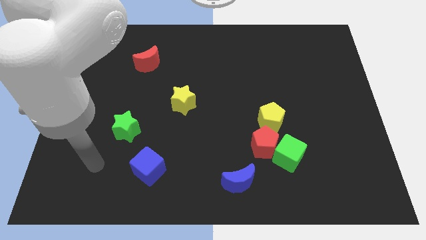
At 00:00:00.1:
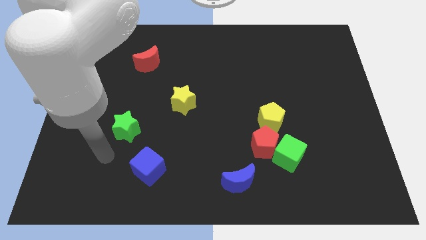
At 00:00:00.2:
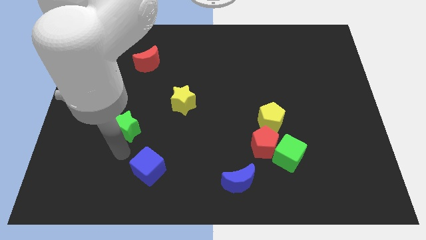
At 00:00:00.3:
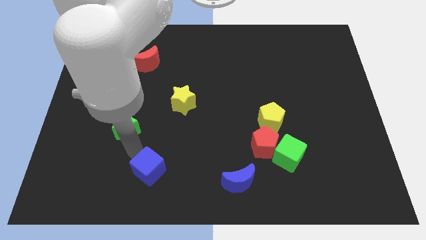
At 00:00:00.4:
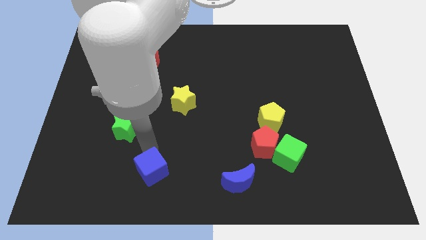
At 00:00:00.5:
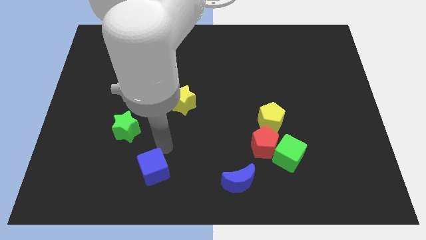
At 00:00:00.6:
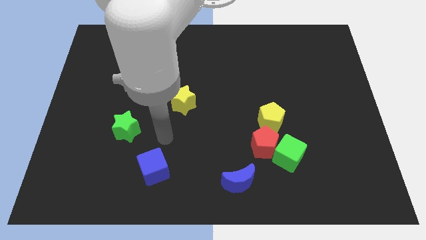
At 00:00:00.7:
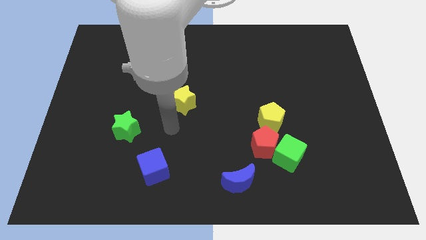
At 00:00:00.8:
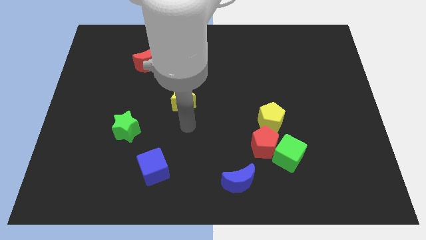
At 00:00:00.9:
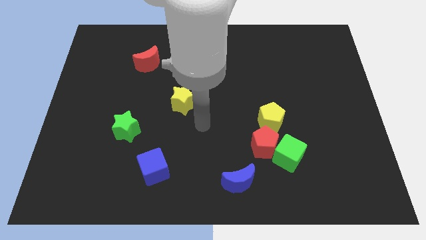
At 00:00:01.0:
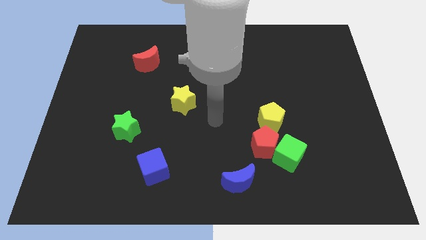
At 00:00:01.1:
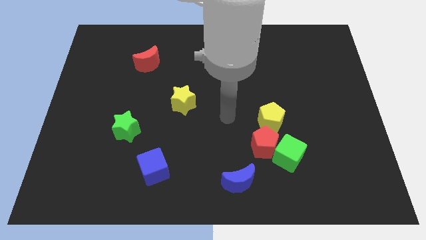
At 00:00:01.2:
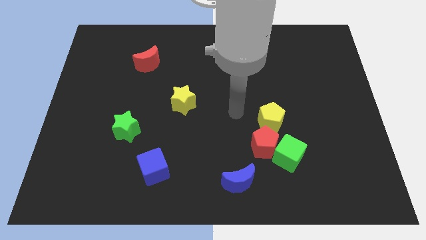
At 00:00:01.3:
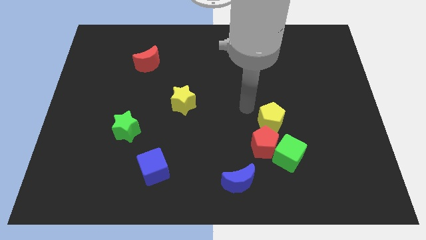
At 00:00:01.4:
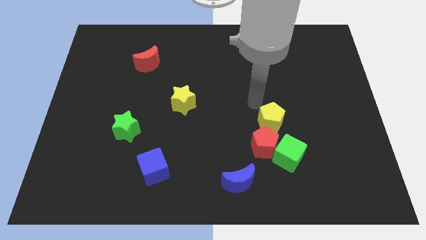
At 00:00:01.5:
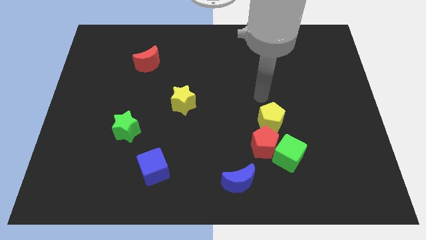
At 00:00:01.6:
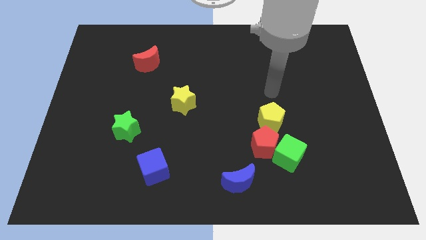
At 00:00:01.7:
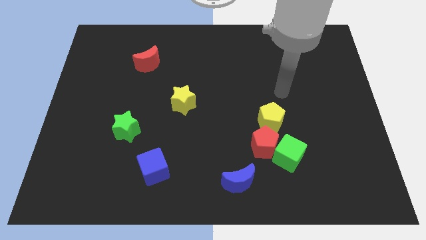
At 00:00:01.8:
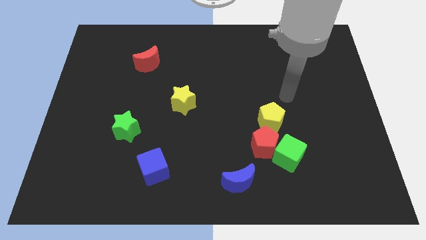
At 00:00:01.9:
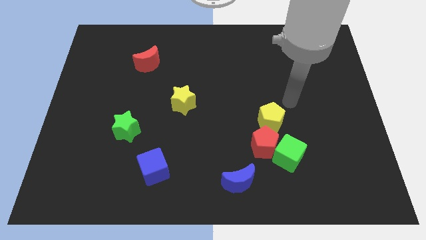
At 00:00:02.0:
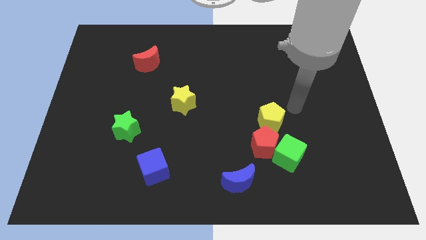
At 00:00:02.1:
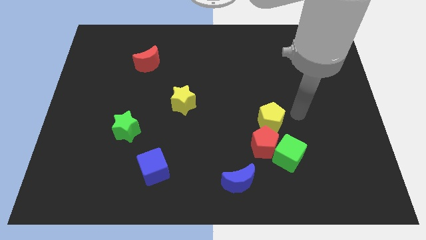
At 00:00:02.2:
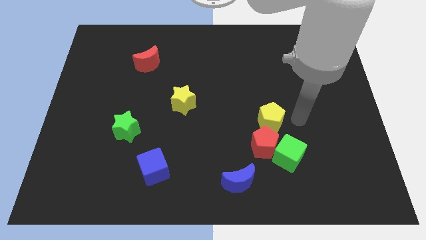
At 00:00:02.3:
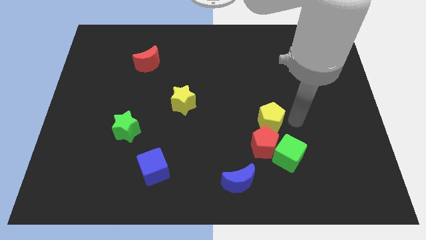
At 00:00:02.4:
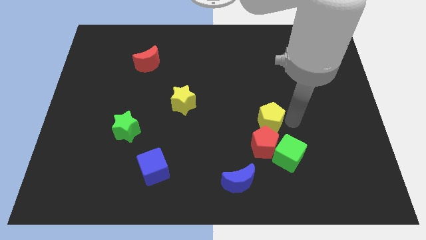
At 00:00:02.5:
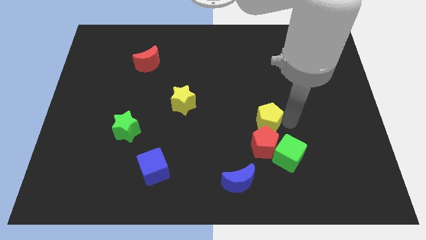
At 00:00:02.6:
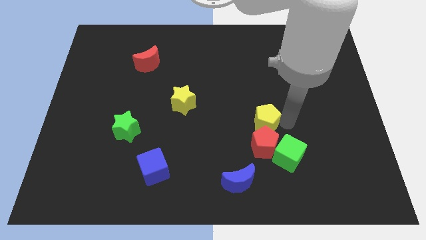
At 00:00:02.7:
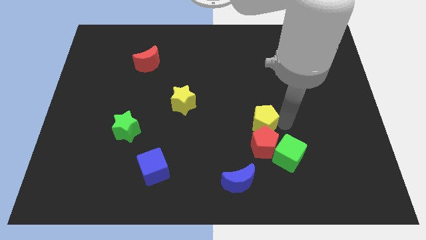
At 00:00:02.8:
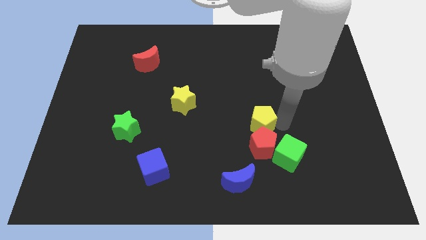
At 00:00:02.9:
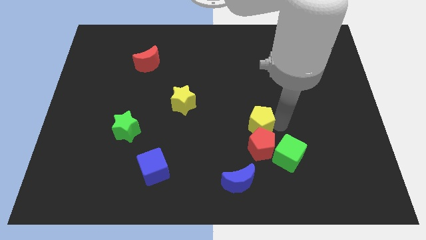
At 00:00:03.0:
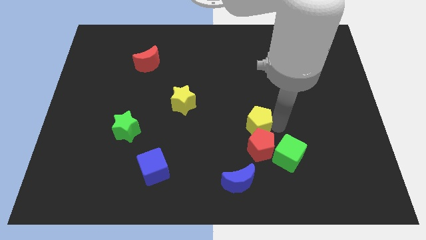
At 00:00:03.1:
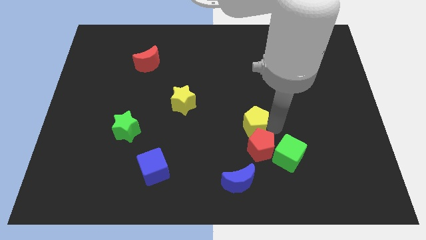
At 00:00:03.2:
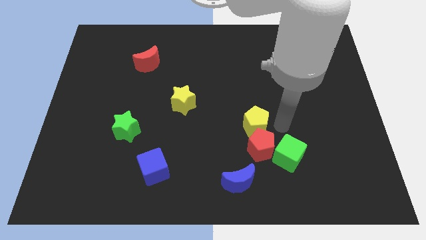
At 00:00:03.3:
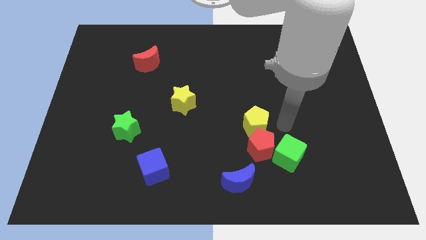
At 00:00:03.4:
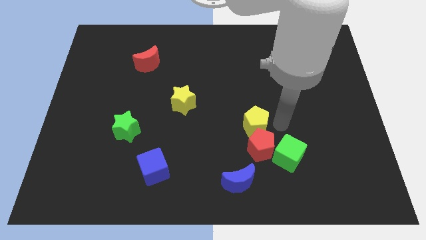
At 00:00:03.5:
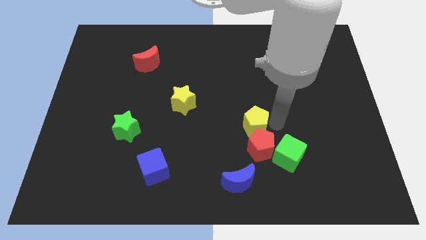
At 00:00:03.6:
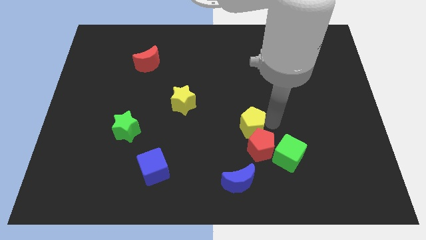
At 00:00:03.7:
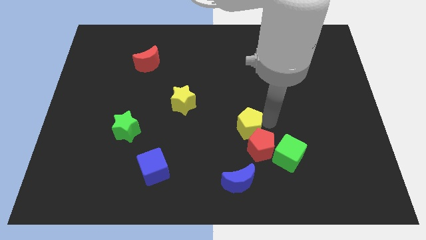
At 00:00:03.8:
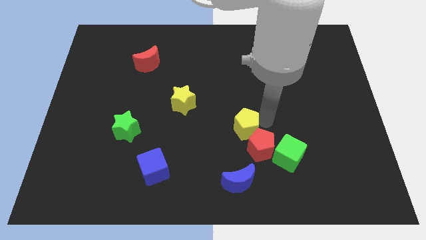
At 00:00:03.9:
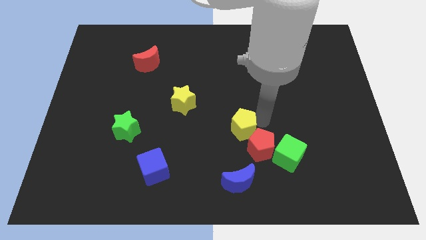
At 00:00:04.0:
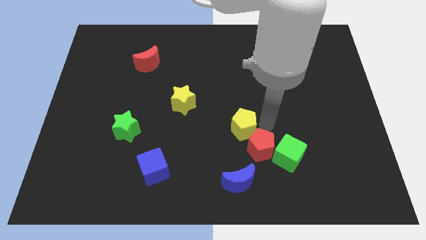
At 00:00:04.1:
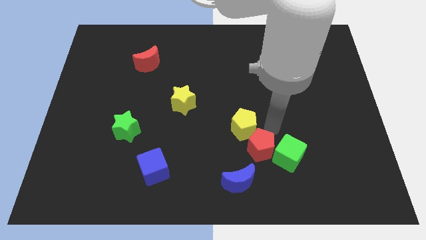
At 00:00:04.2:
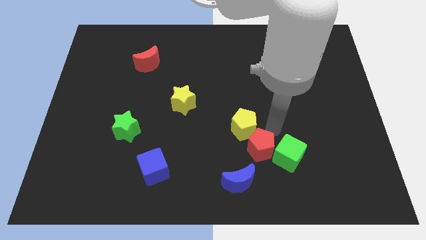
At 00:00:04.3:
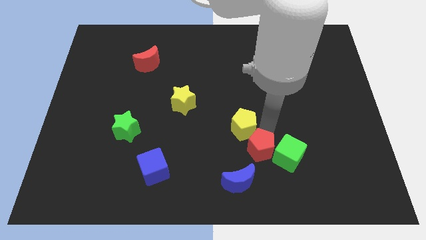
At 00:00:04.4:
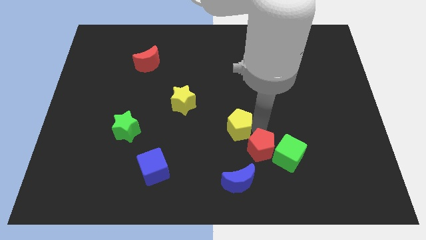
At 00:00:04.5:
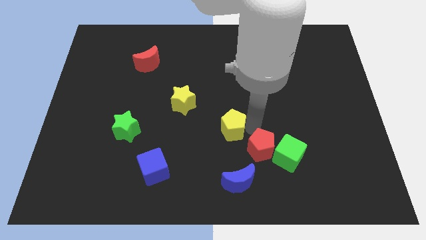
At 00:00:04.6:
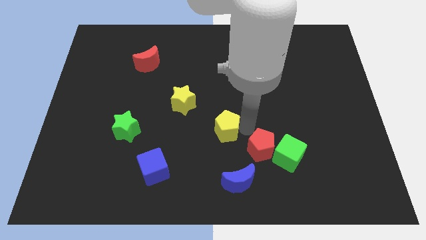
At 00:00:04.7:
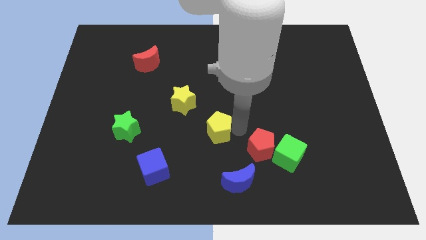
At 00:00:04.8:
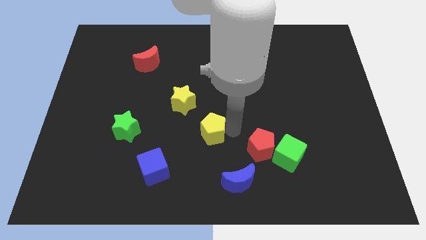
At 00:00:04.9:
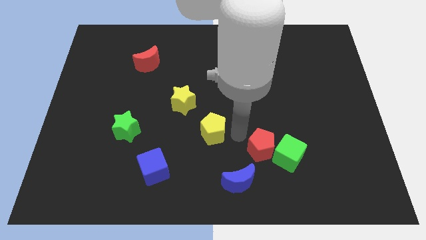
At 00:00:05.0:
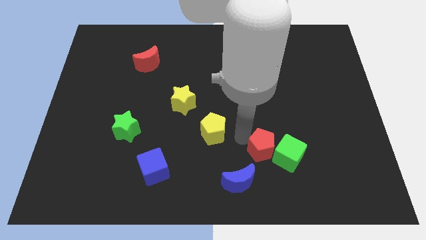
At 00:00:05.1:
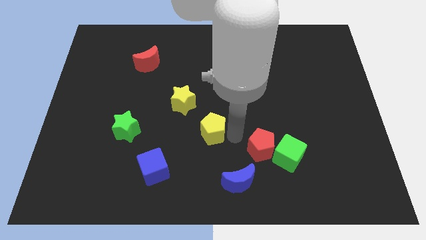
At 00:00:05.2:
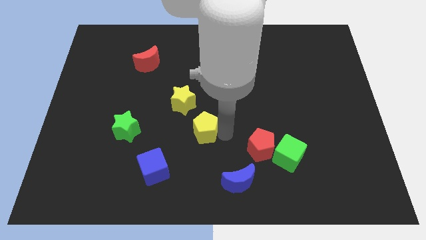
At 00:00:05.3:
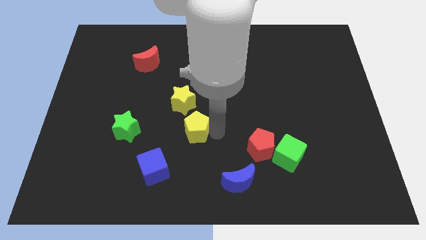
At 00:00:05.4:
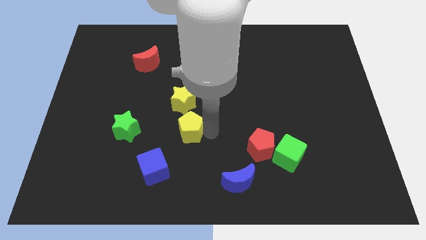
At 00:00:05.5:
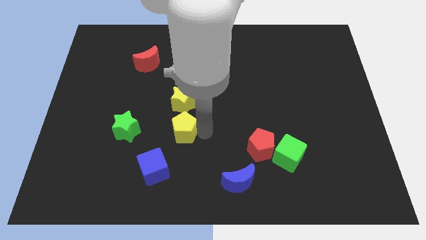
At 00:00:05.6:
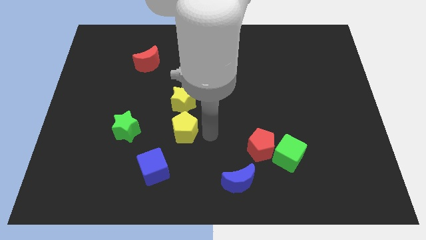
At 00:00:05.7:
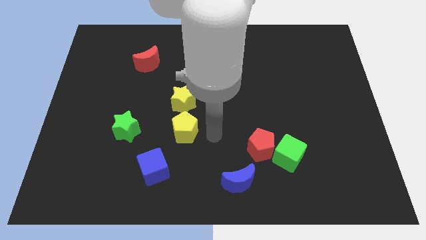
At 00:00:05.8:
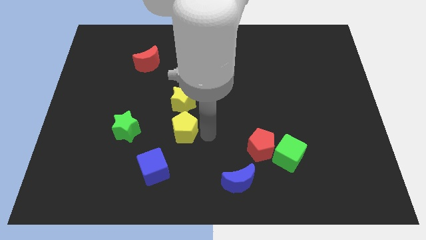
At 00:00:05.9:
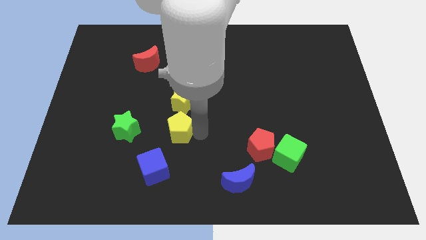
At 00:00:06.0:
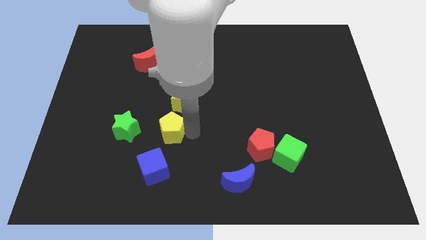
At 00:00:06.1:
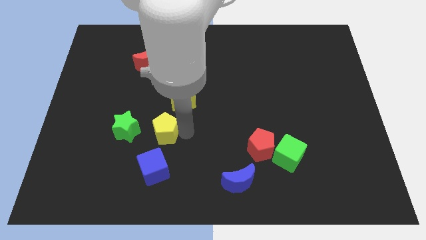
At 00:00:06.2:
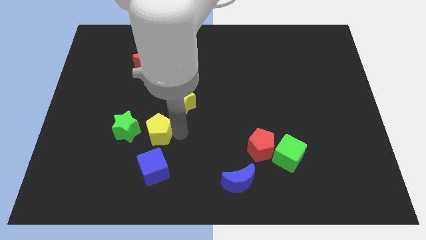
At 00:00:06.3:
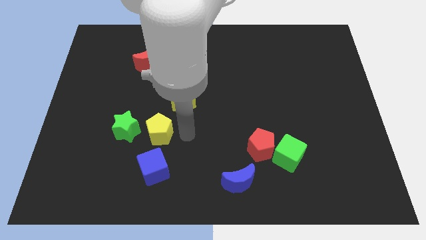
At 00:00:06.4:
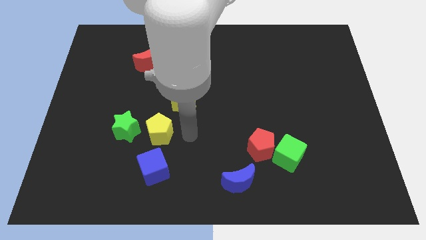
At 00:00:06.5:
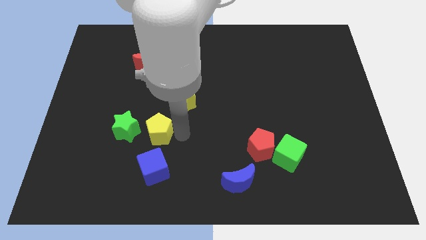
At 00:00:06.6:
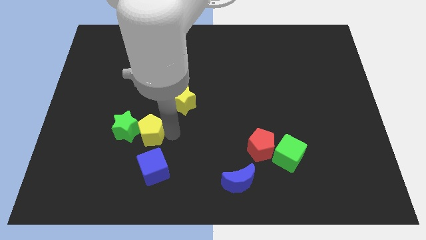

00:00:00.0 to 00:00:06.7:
put the yellow pentagon towards the green star

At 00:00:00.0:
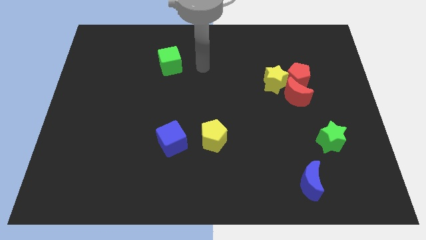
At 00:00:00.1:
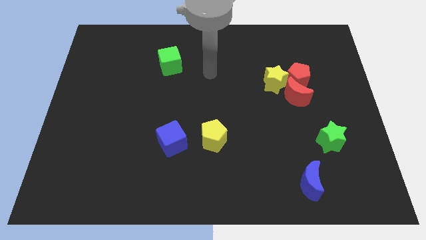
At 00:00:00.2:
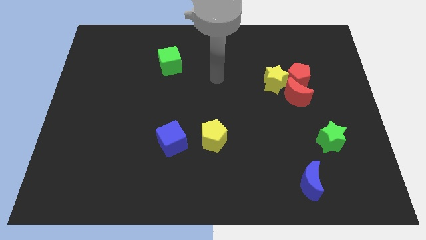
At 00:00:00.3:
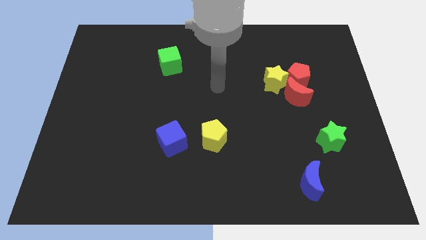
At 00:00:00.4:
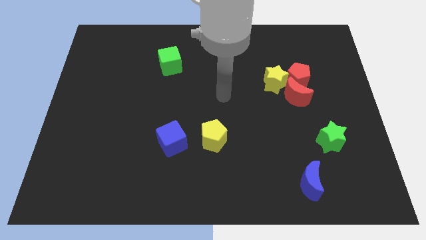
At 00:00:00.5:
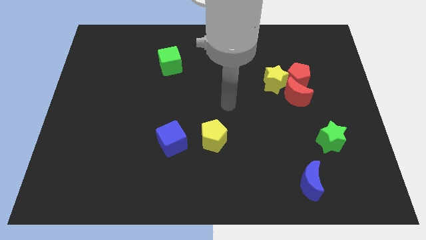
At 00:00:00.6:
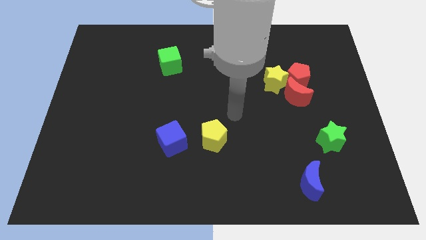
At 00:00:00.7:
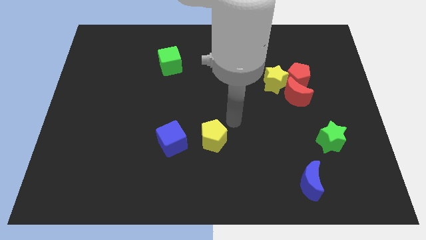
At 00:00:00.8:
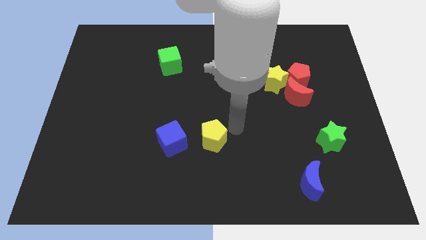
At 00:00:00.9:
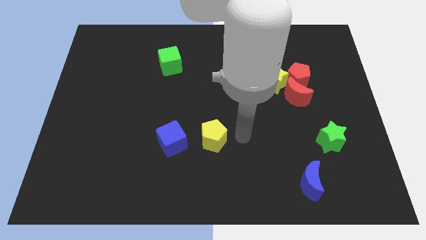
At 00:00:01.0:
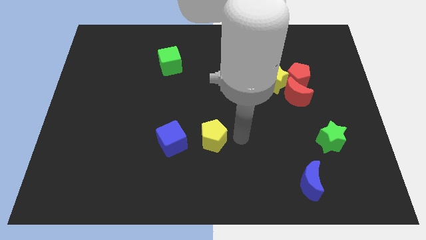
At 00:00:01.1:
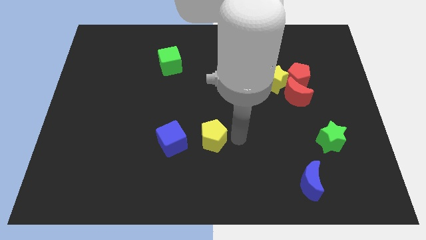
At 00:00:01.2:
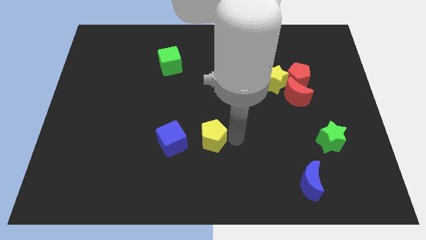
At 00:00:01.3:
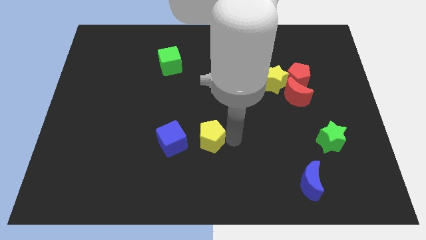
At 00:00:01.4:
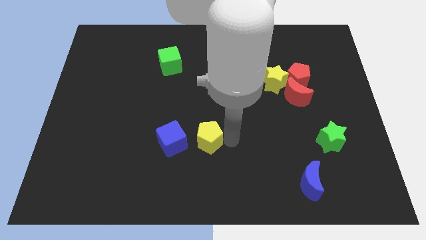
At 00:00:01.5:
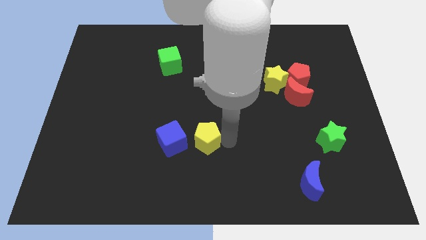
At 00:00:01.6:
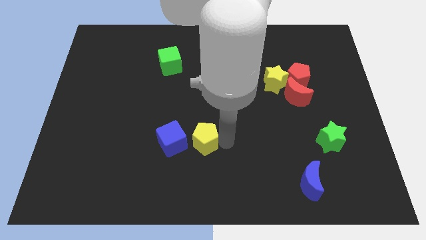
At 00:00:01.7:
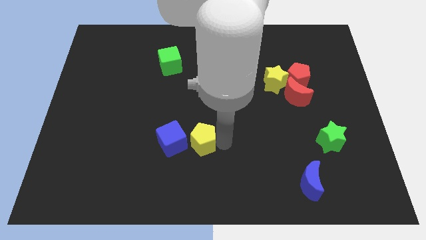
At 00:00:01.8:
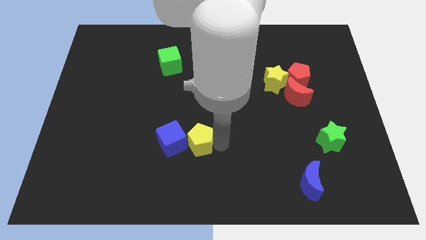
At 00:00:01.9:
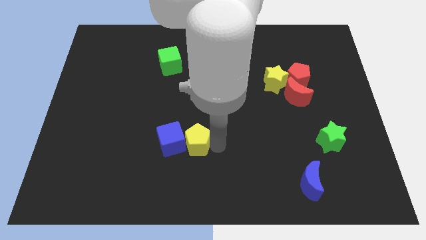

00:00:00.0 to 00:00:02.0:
move the yellow pentagon close to the blue cube
